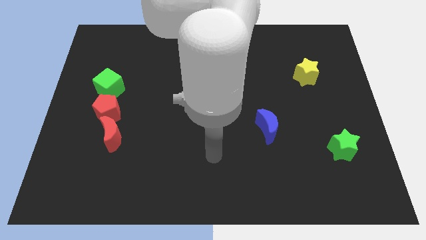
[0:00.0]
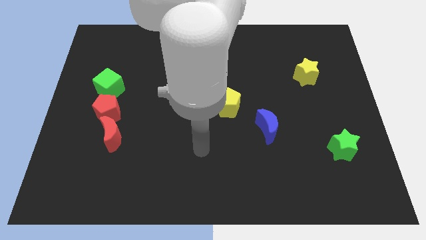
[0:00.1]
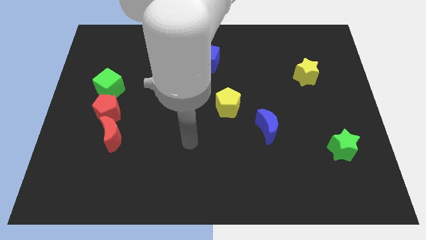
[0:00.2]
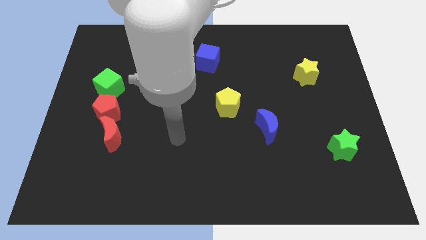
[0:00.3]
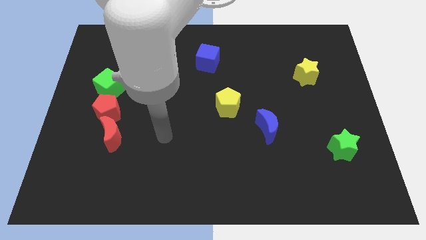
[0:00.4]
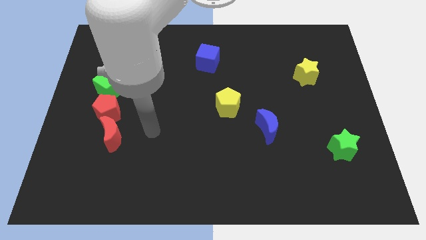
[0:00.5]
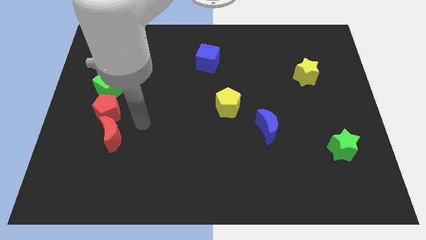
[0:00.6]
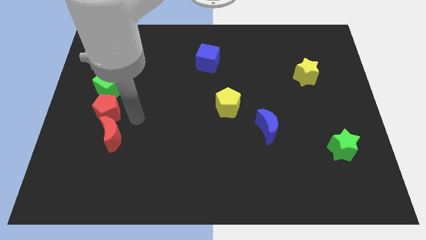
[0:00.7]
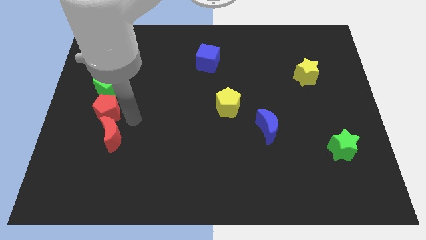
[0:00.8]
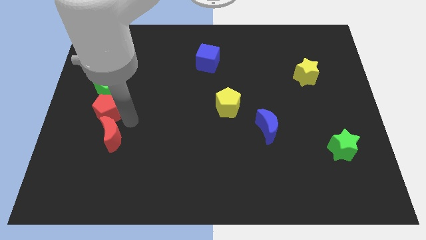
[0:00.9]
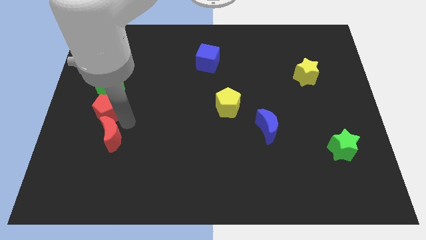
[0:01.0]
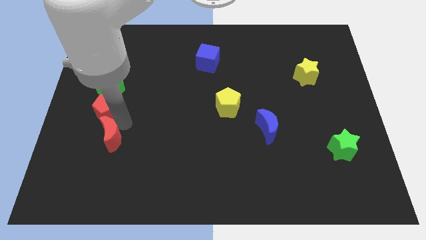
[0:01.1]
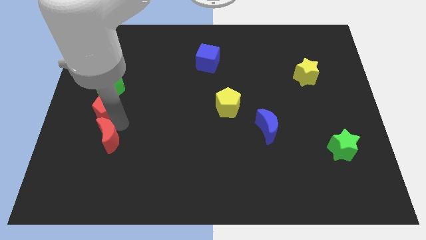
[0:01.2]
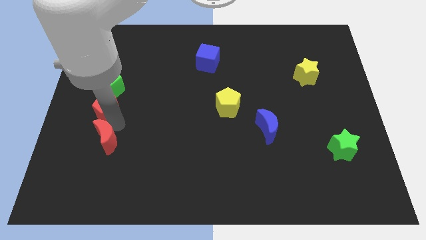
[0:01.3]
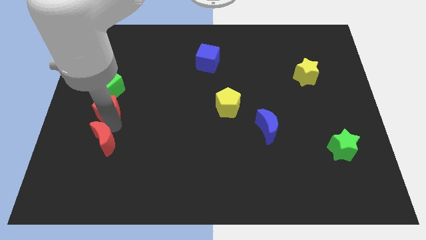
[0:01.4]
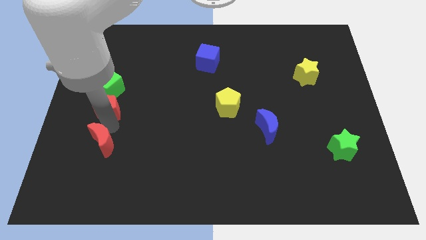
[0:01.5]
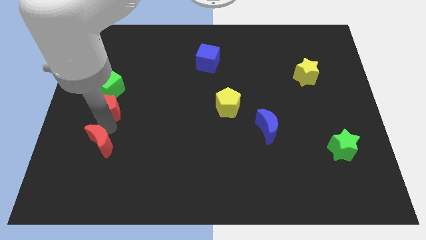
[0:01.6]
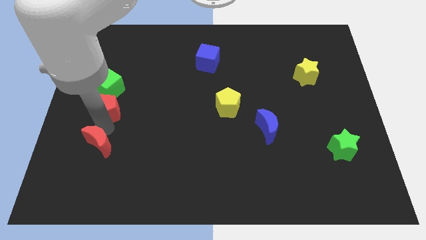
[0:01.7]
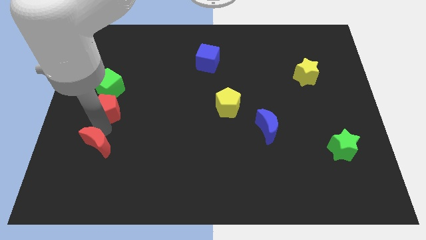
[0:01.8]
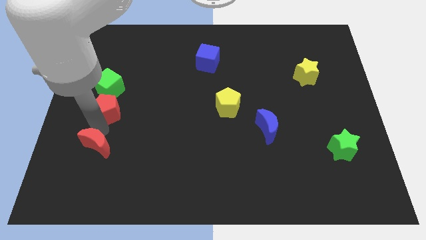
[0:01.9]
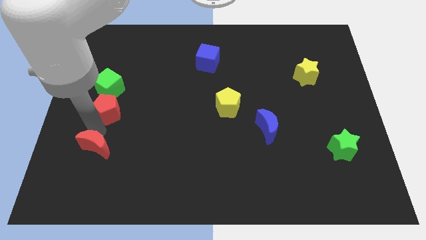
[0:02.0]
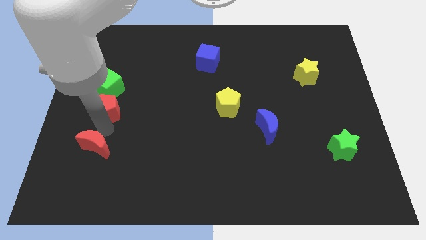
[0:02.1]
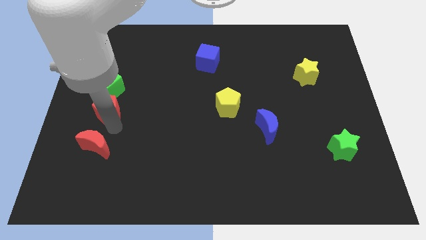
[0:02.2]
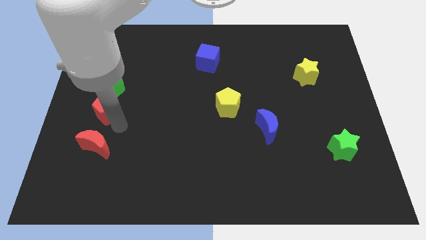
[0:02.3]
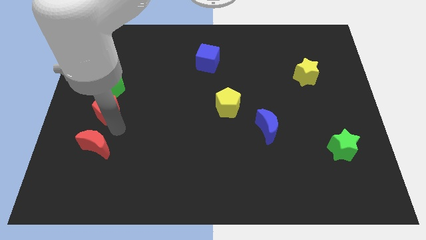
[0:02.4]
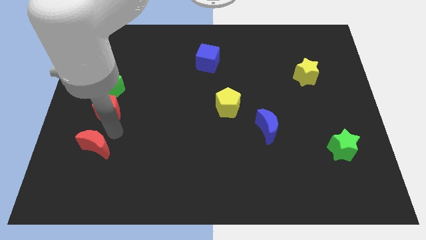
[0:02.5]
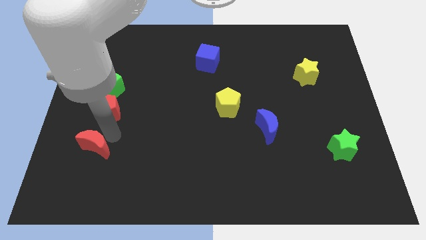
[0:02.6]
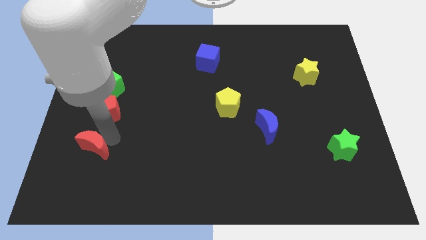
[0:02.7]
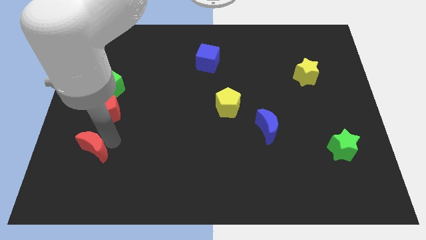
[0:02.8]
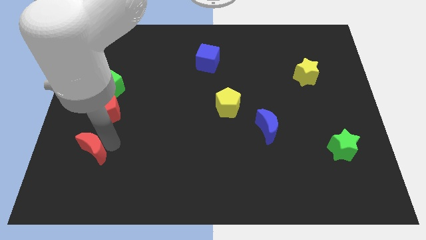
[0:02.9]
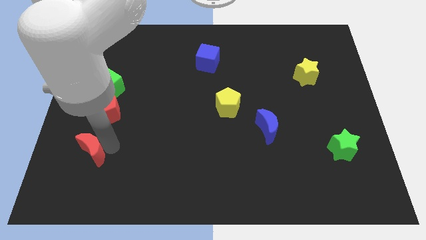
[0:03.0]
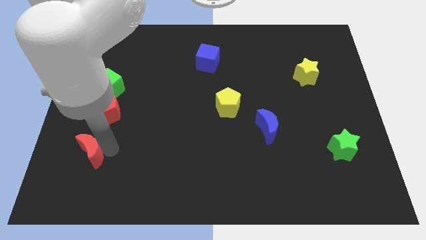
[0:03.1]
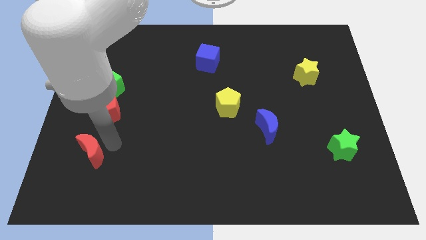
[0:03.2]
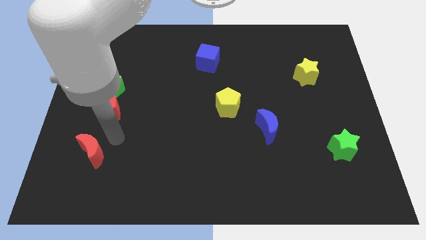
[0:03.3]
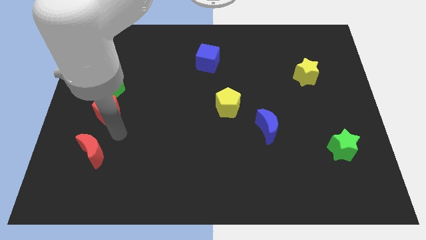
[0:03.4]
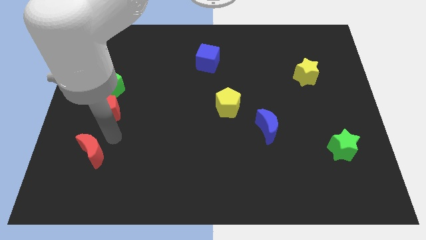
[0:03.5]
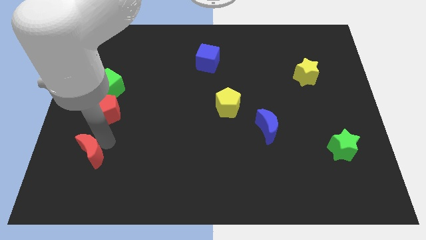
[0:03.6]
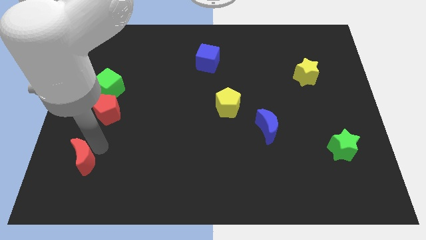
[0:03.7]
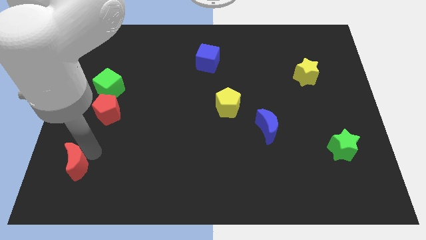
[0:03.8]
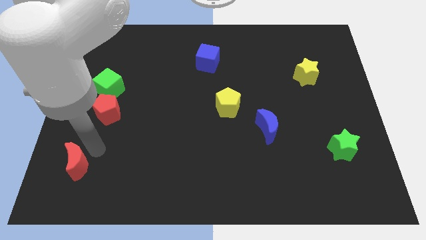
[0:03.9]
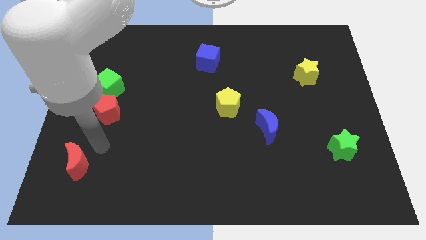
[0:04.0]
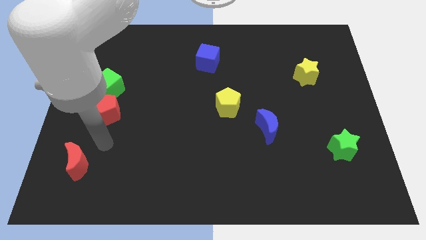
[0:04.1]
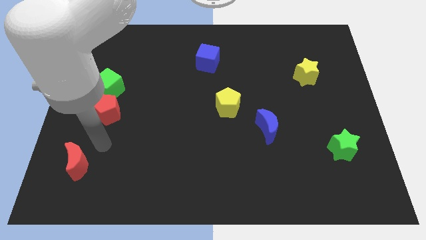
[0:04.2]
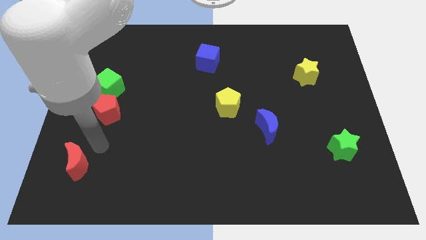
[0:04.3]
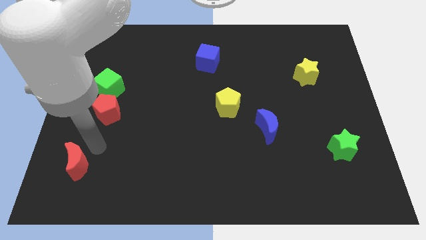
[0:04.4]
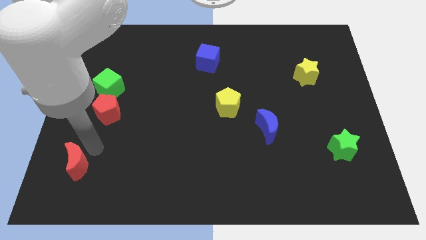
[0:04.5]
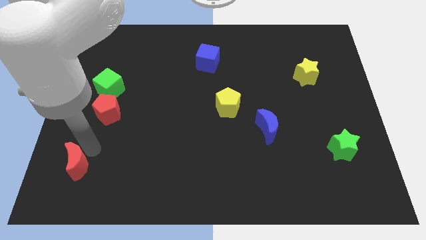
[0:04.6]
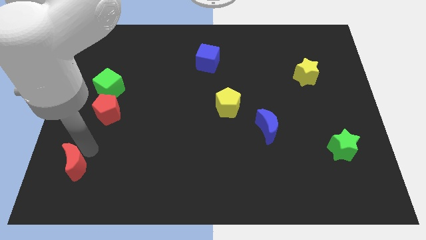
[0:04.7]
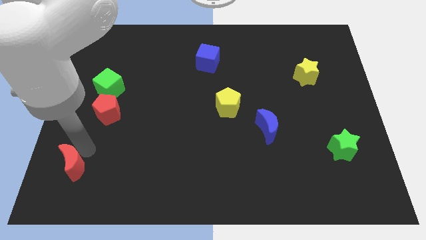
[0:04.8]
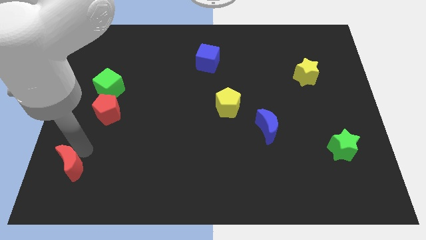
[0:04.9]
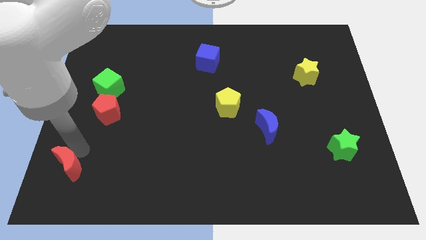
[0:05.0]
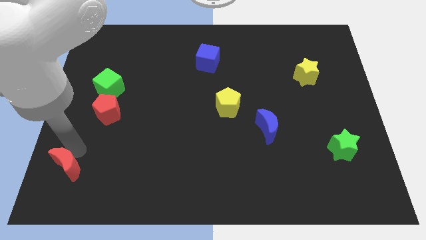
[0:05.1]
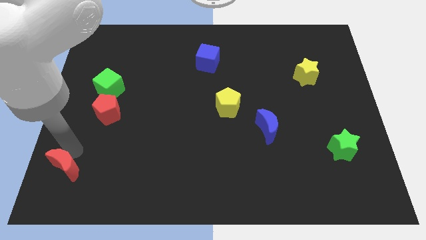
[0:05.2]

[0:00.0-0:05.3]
slide the red moon to the bottom left corner
